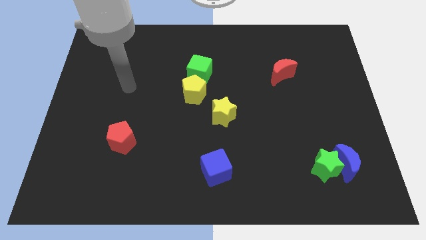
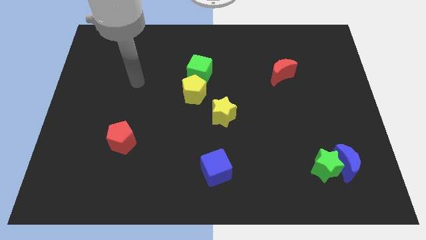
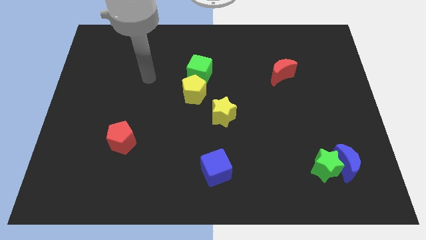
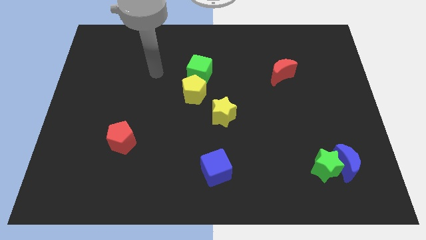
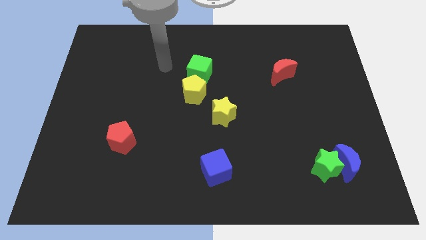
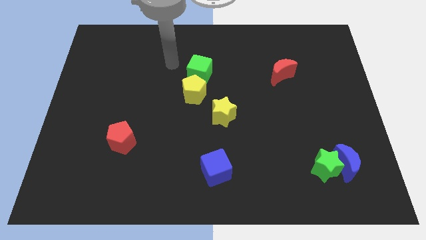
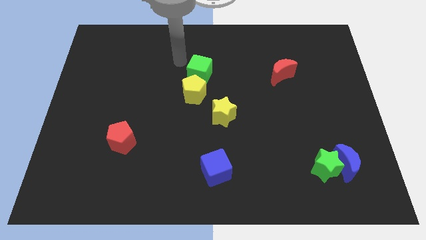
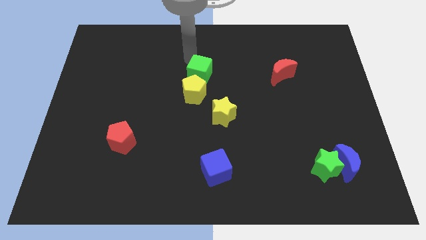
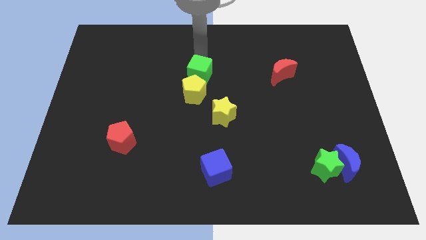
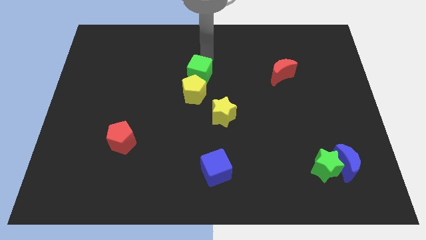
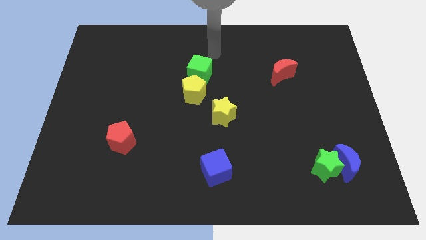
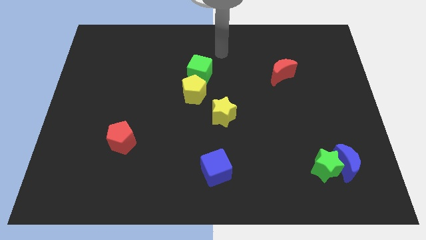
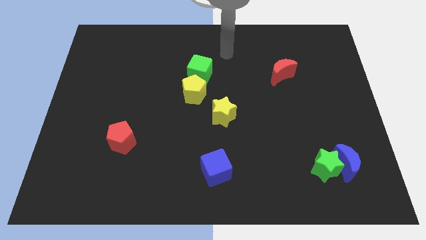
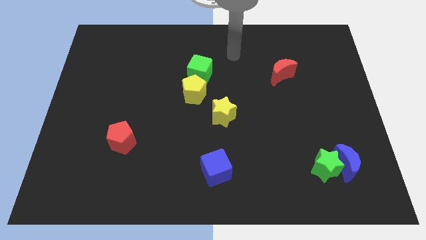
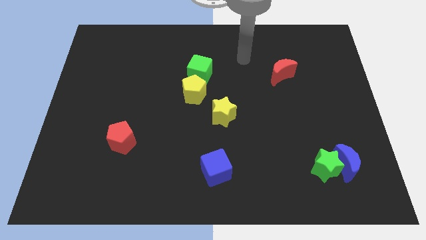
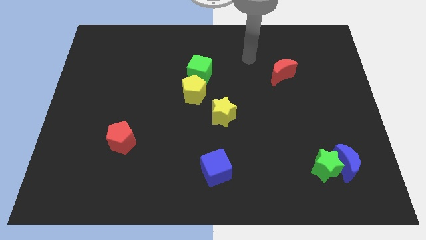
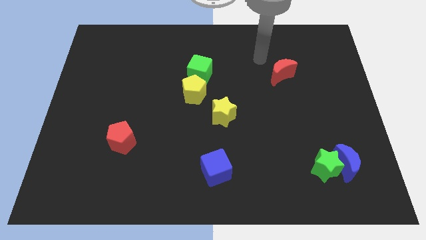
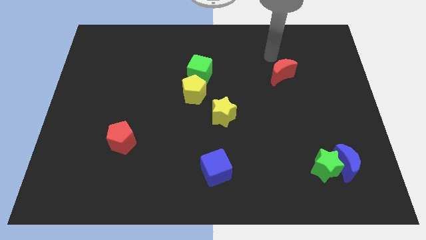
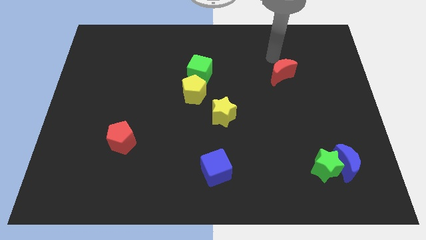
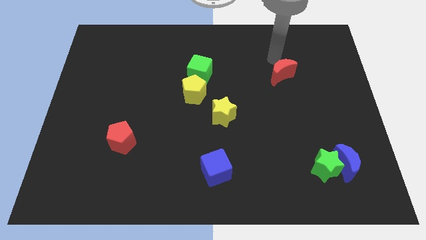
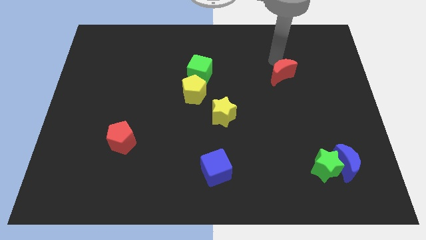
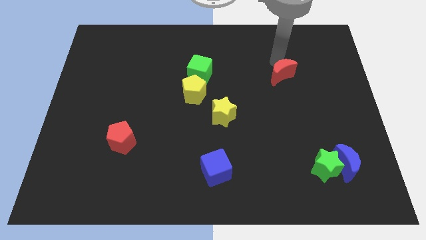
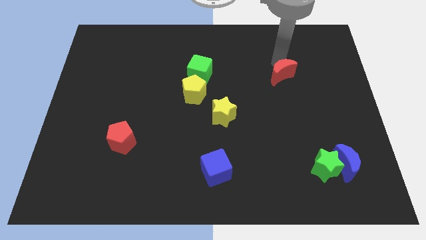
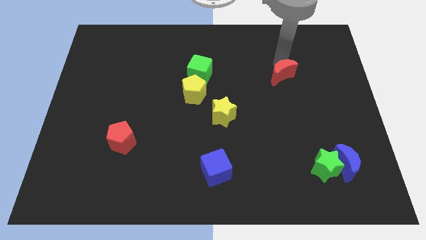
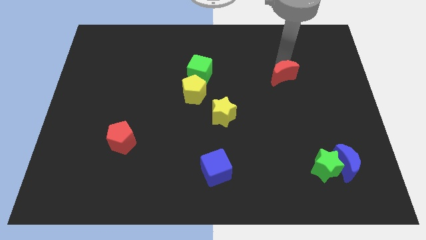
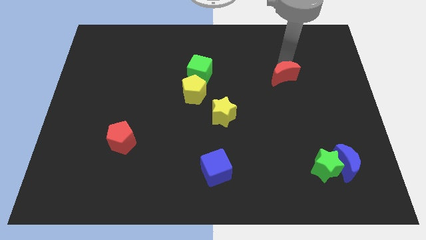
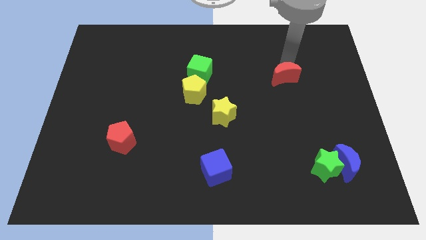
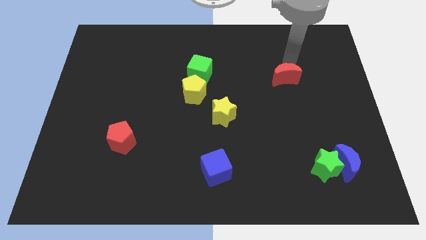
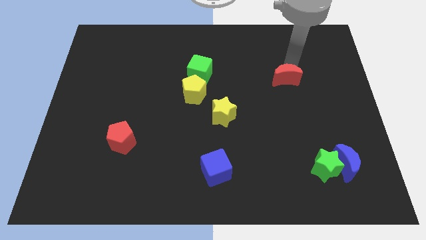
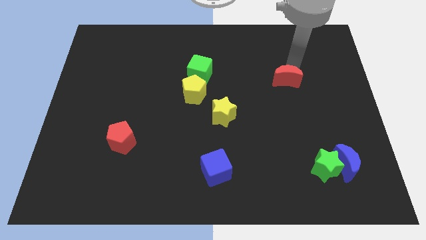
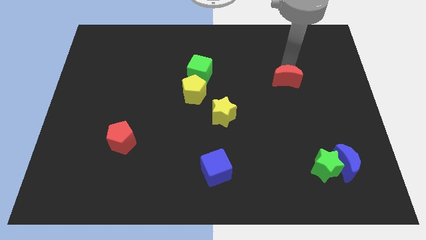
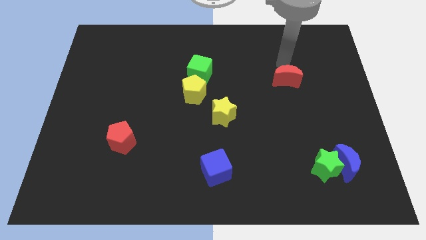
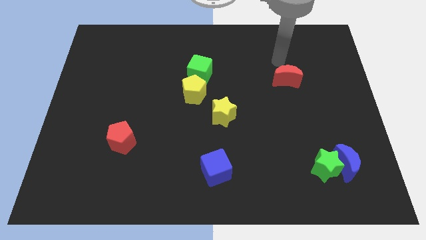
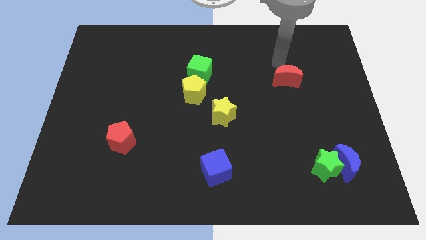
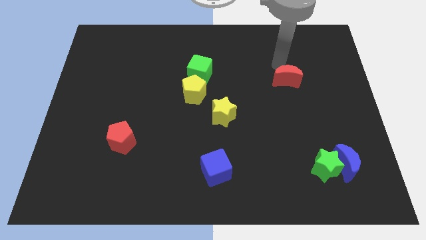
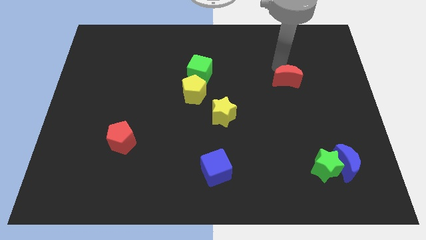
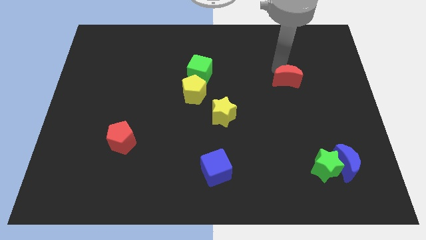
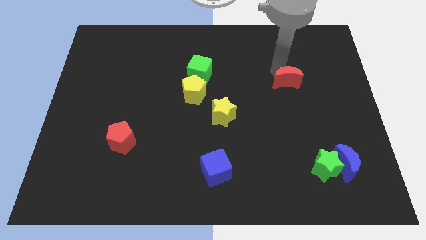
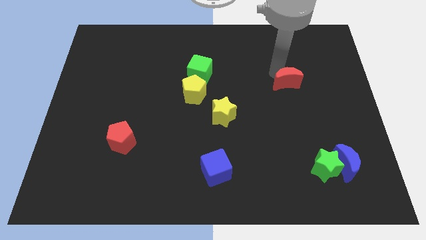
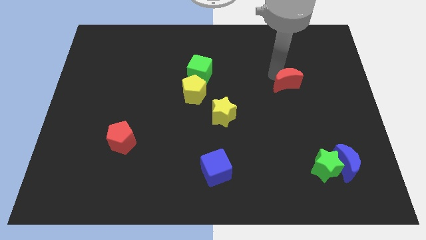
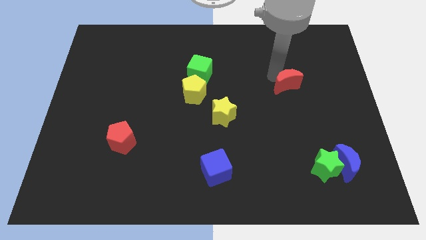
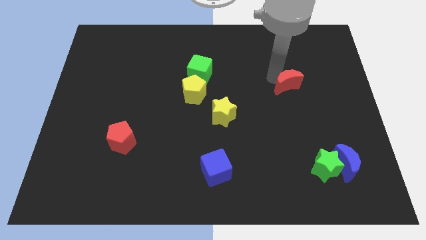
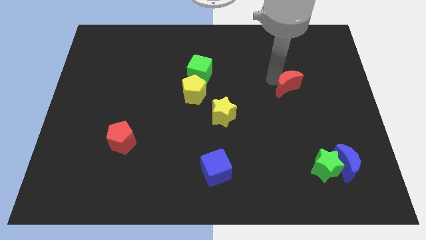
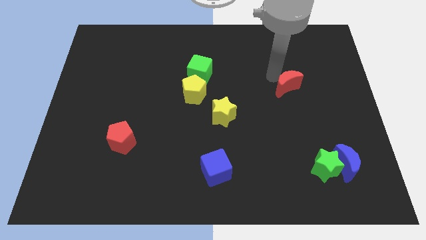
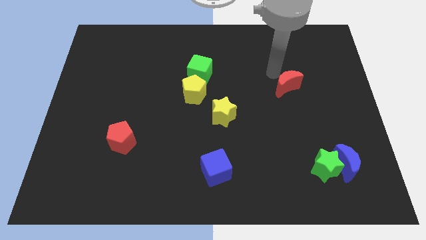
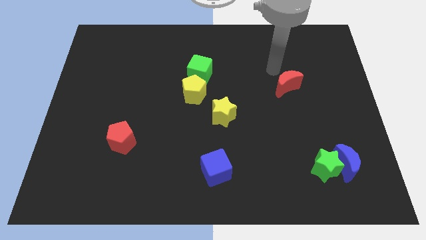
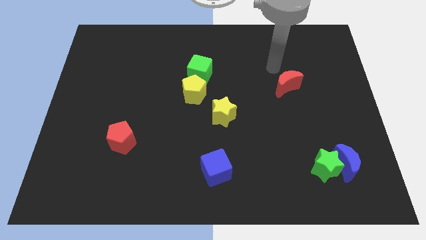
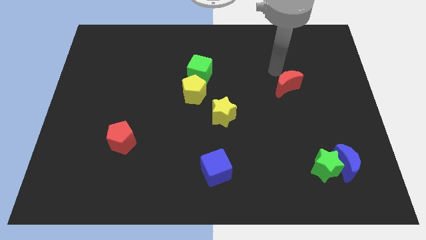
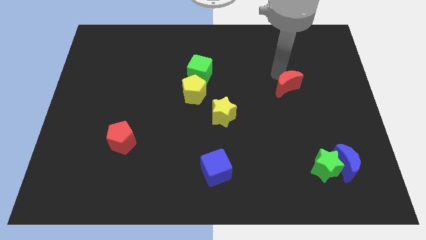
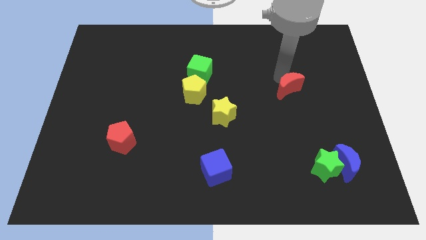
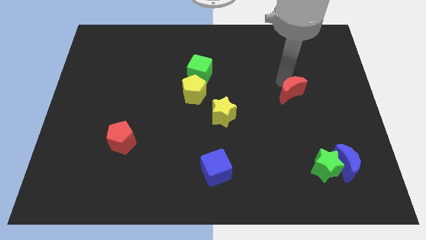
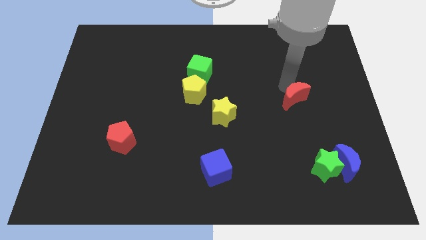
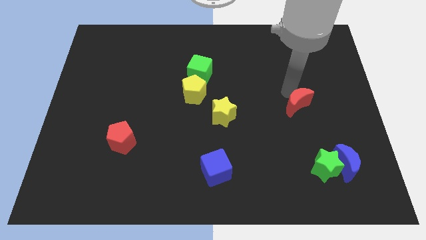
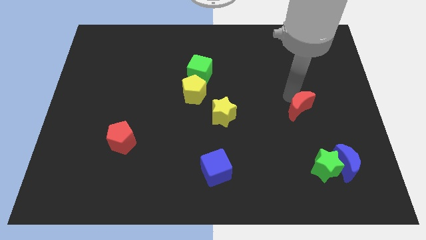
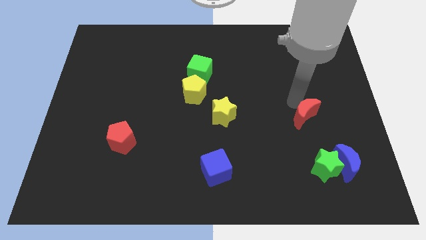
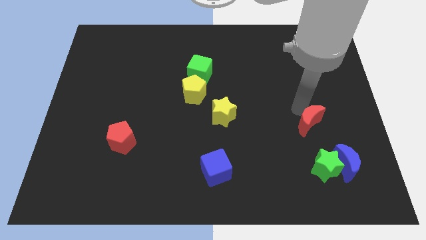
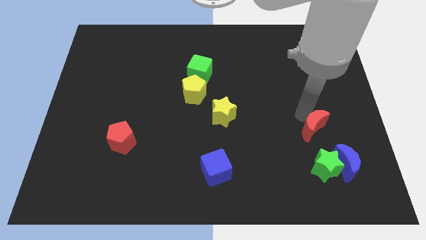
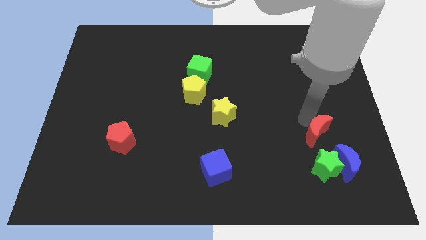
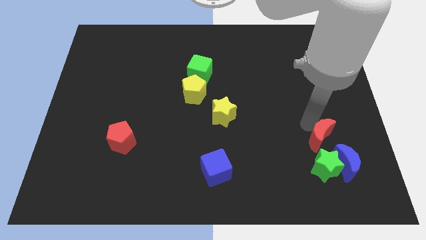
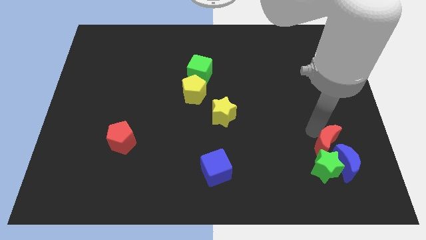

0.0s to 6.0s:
push the red moon to the blue moon

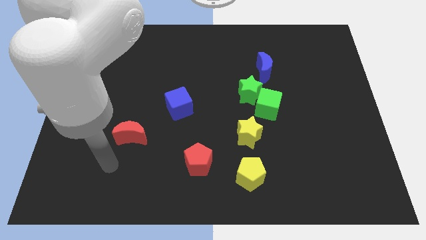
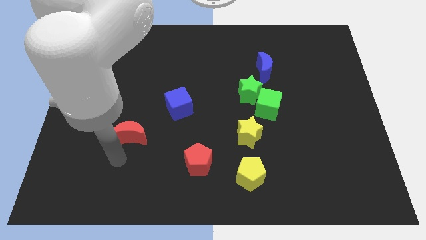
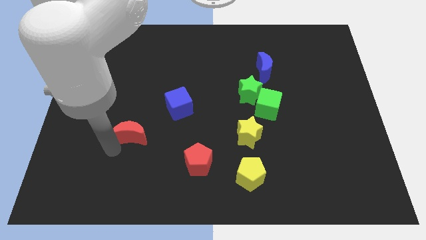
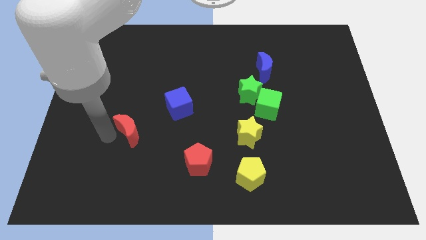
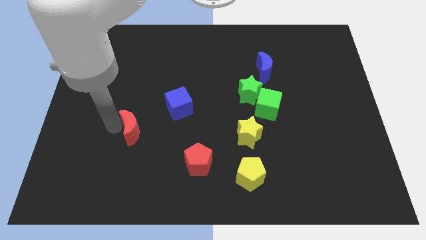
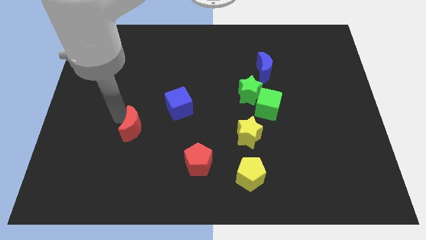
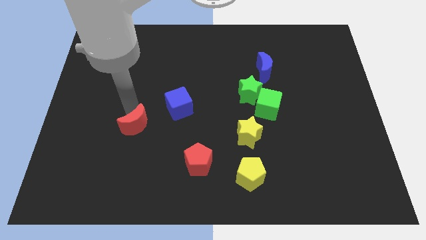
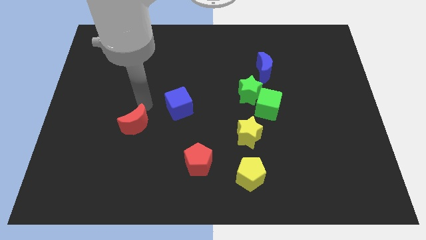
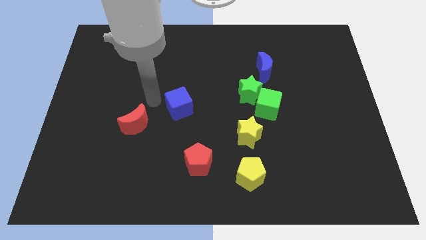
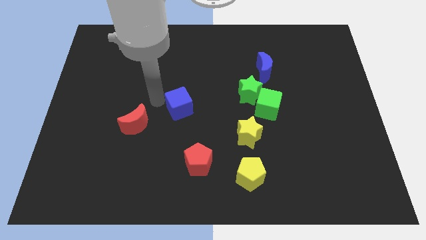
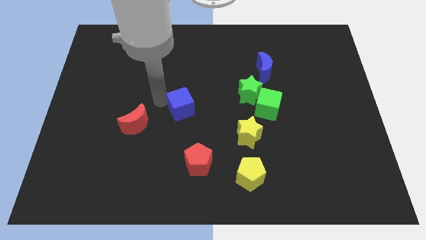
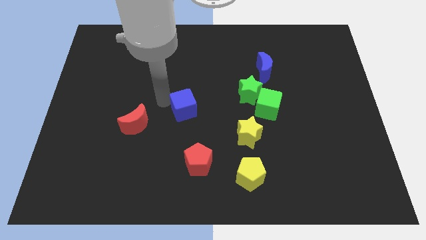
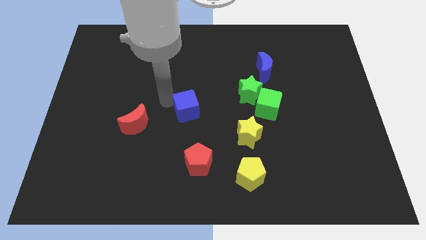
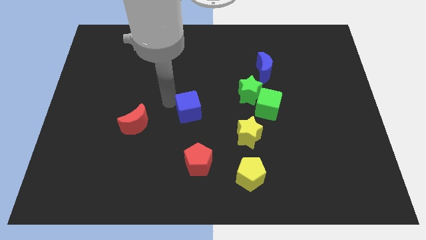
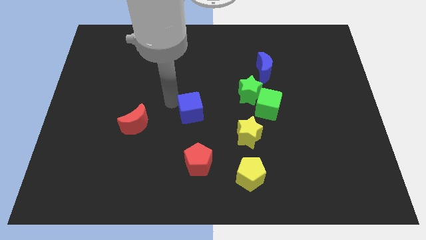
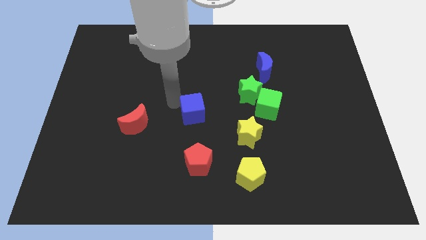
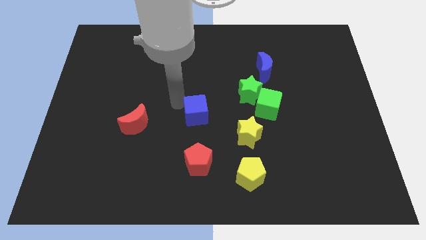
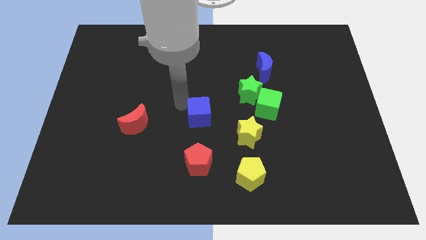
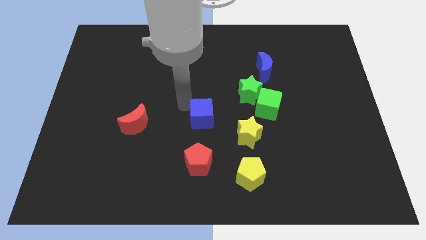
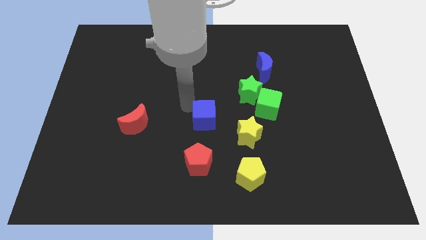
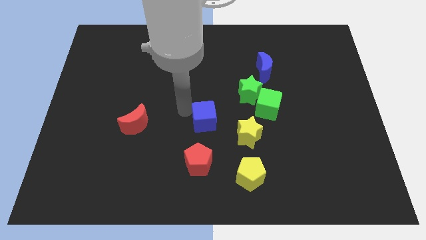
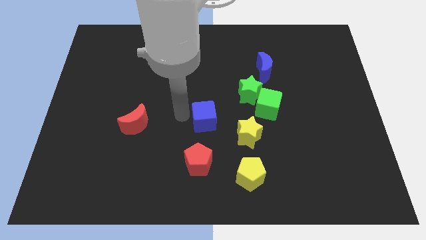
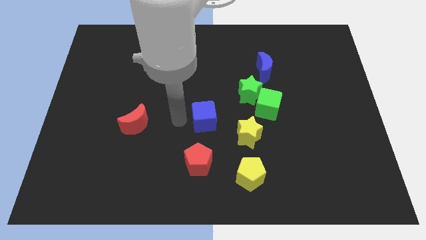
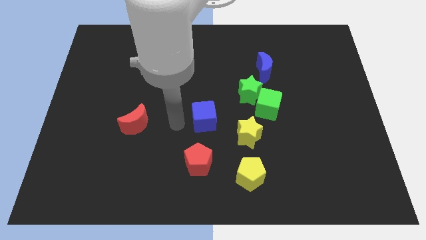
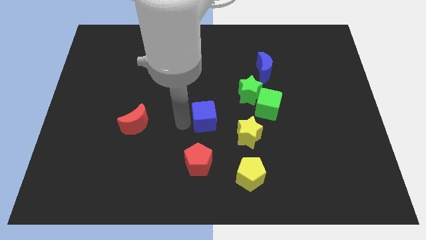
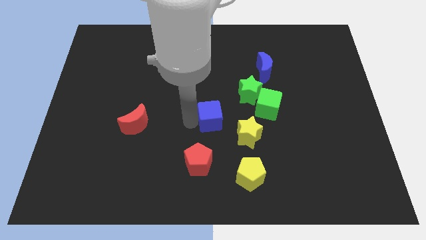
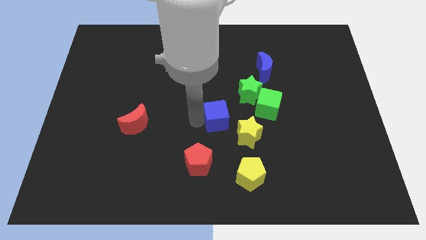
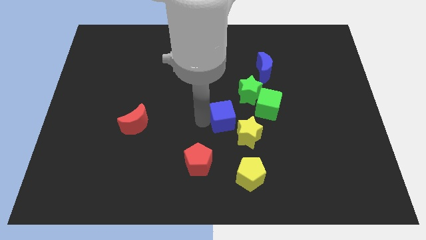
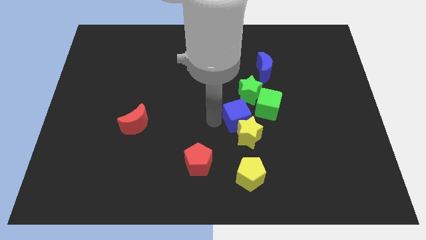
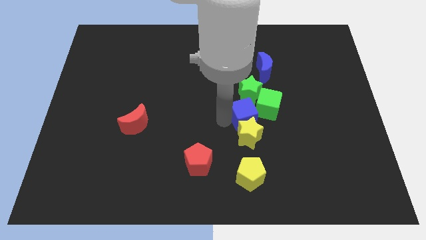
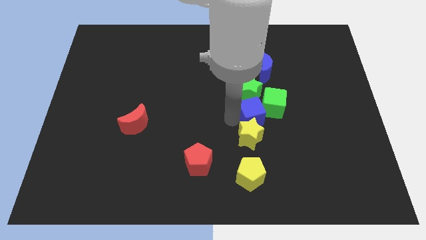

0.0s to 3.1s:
push the blue cube next to the green cube
